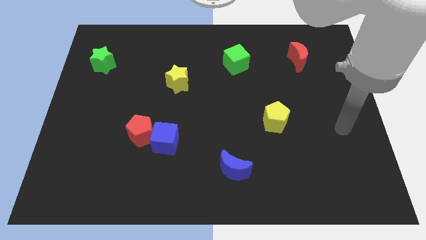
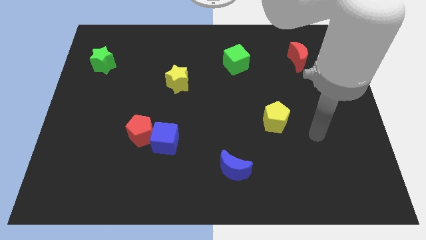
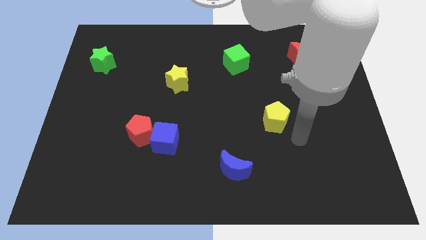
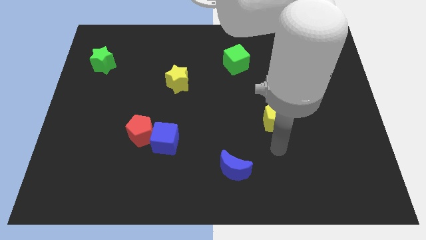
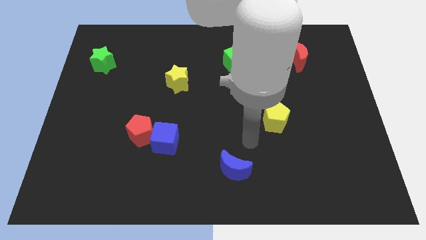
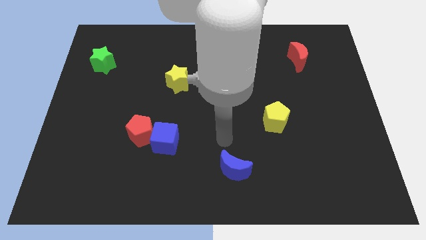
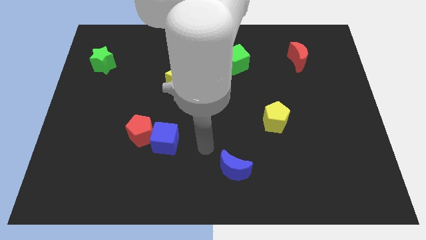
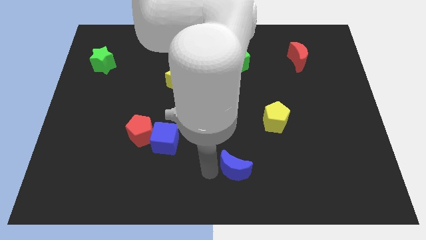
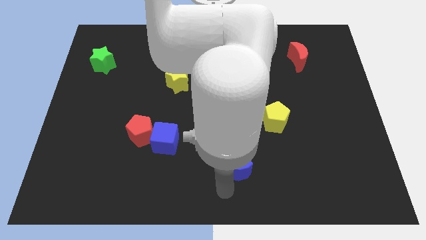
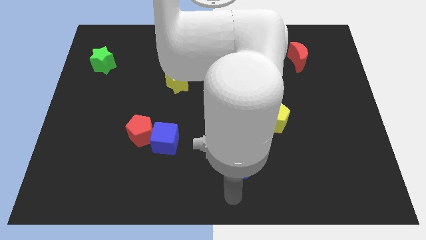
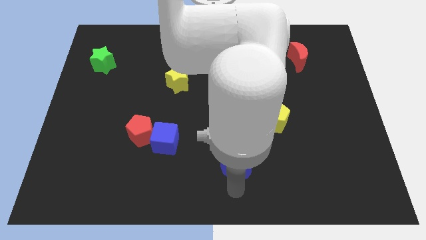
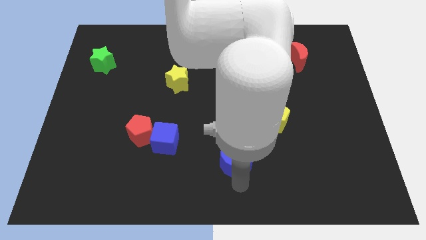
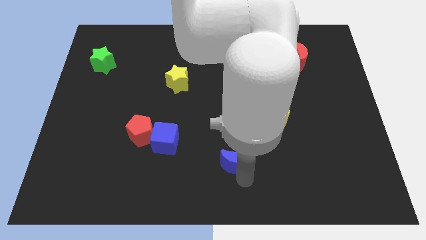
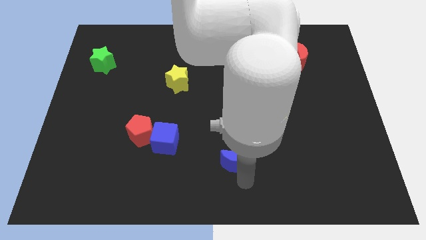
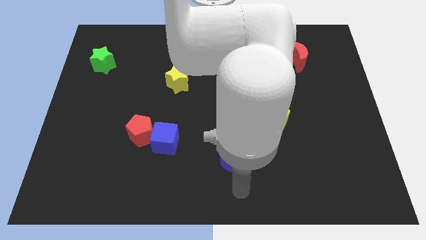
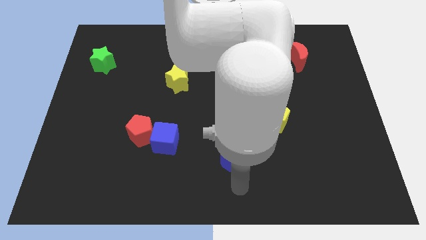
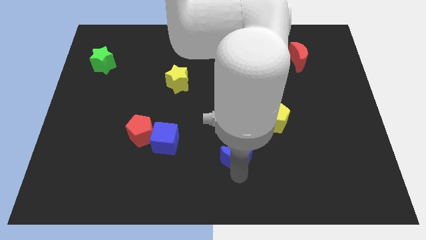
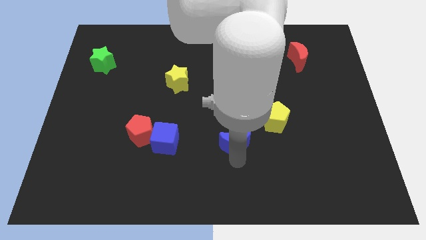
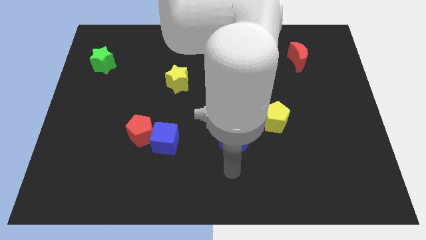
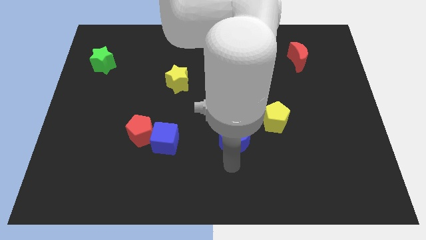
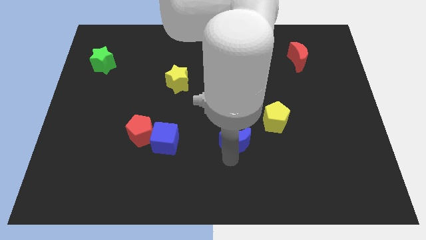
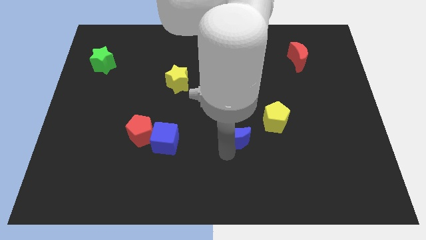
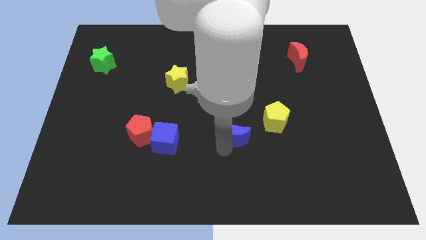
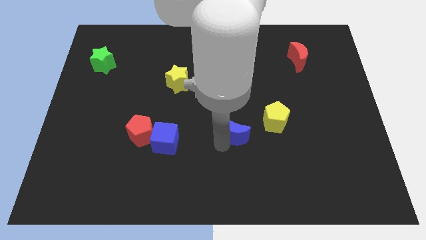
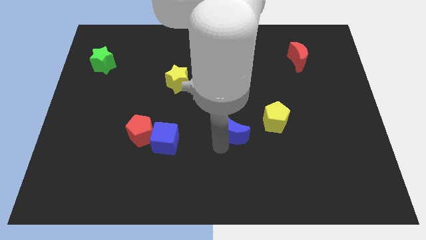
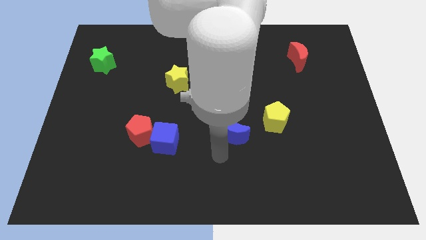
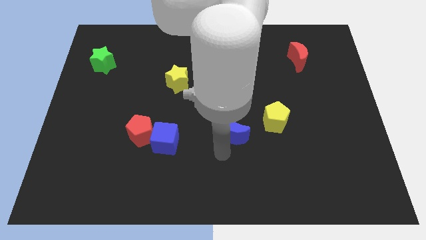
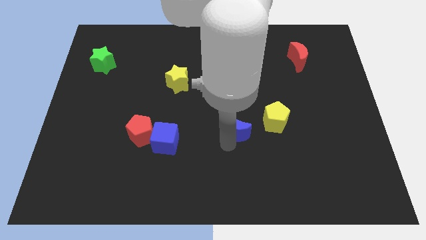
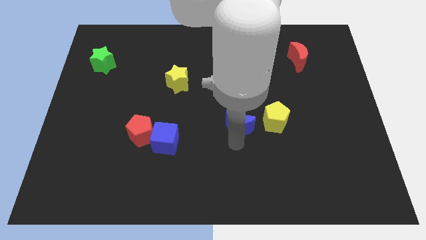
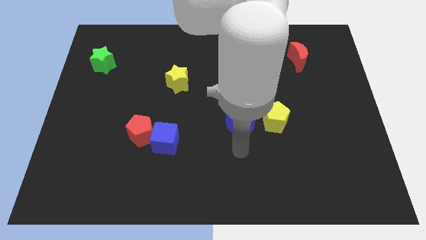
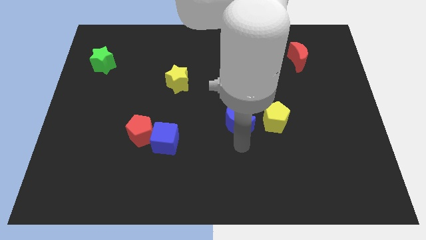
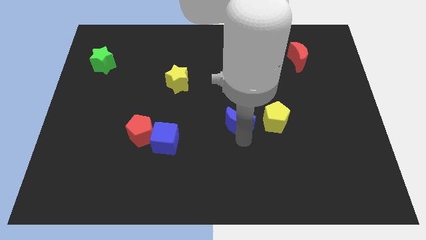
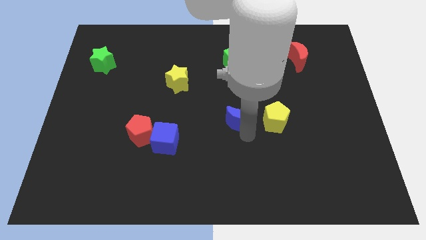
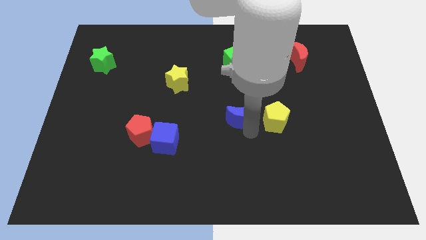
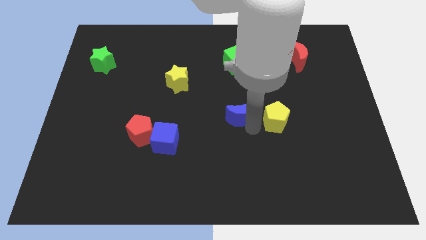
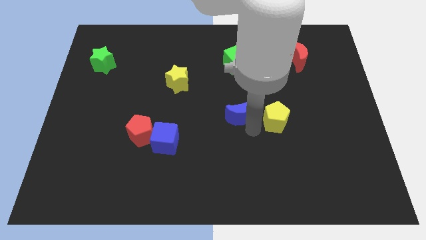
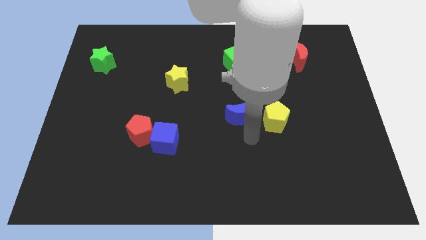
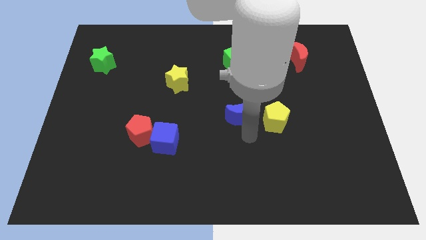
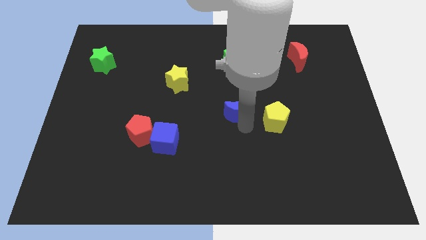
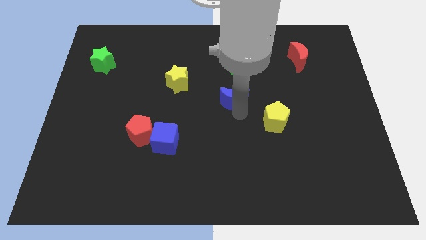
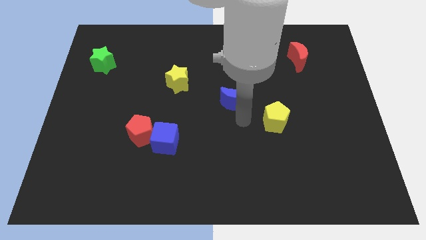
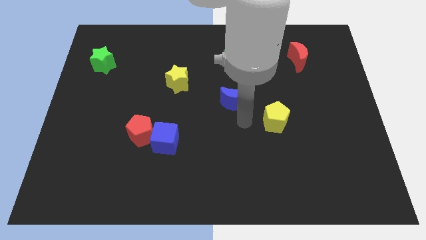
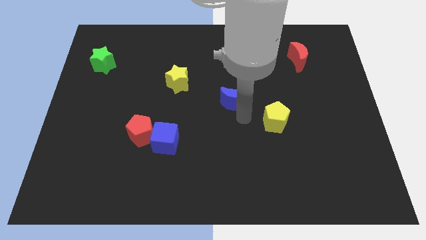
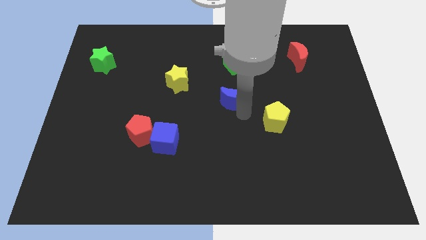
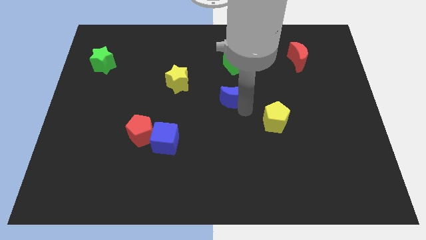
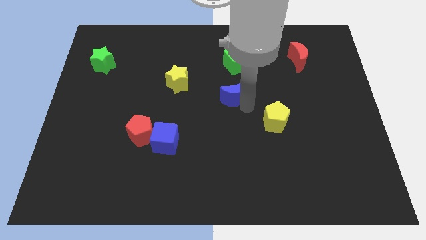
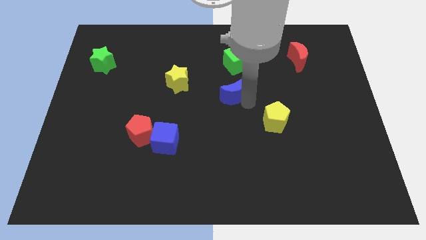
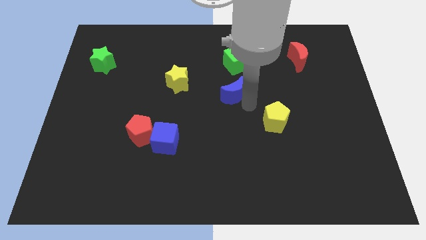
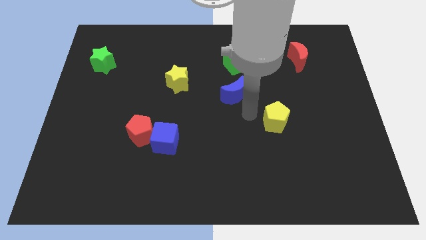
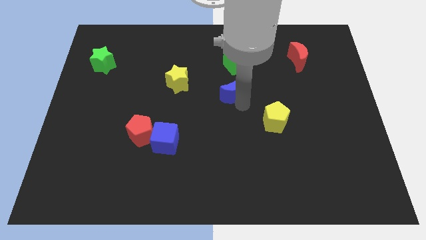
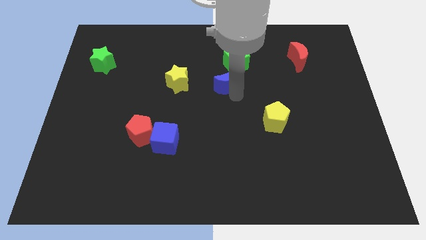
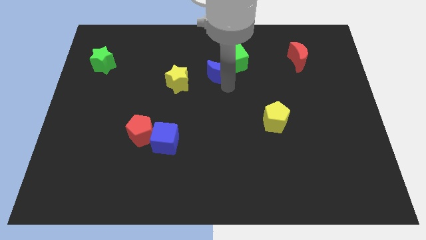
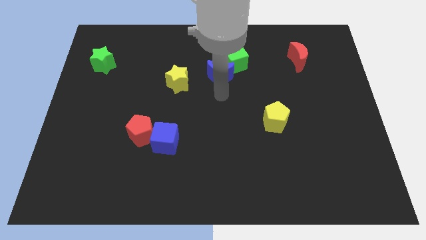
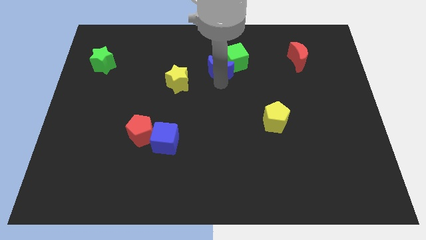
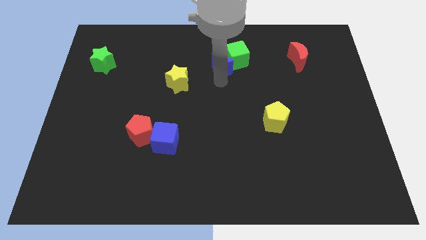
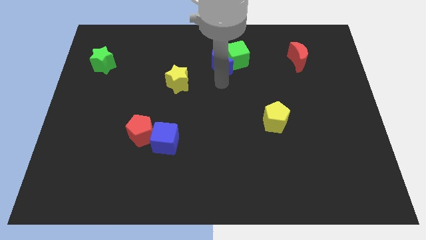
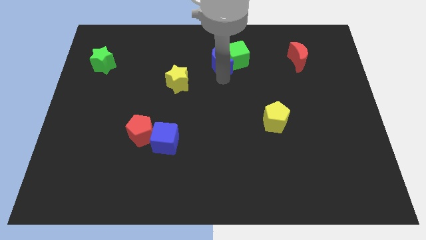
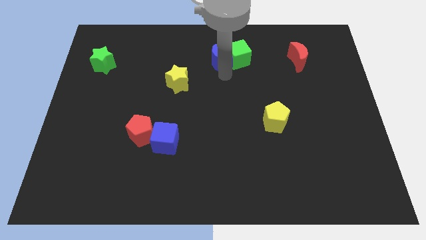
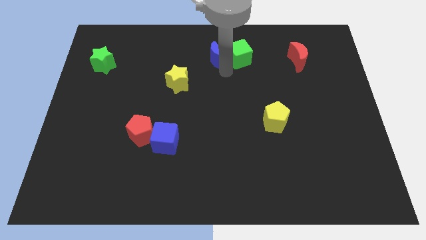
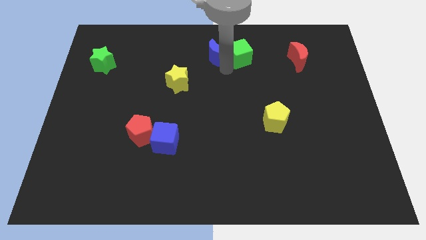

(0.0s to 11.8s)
move the blue moon to the top side
